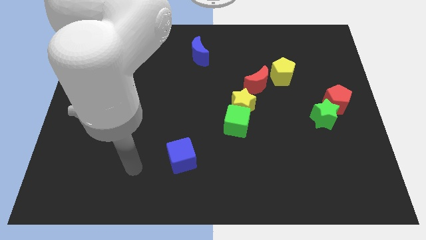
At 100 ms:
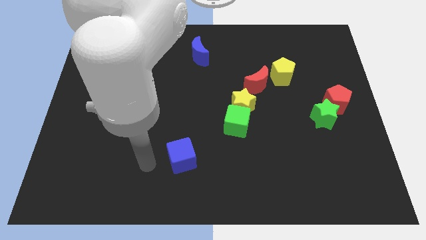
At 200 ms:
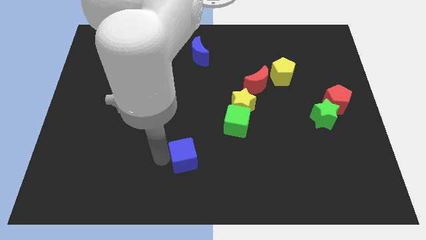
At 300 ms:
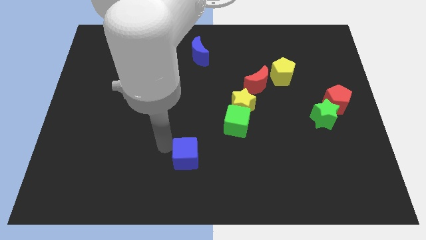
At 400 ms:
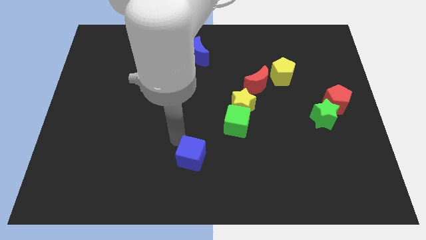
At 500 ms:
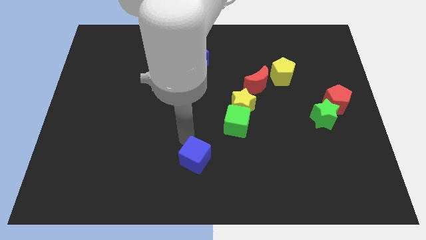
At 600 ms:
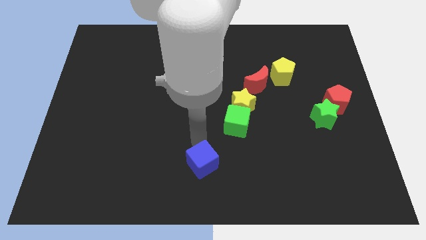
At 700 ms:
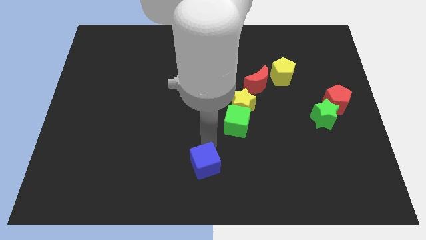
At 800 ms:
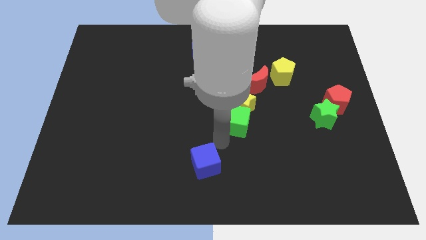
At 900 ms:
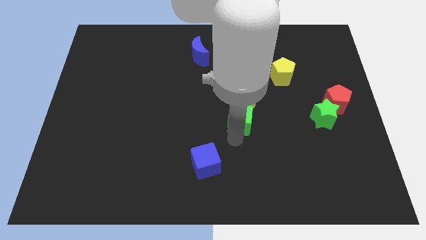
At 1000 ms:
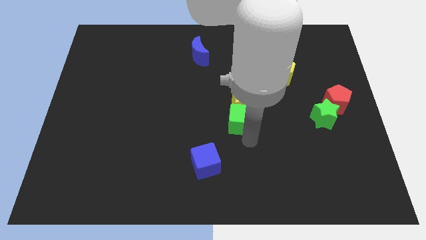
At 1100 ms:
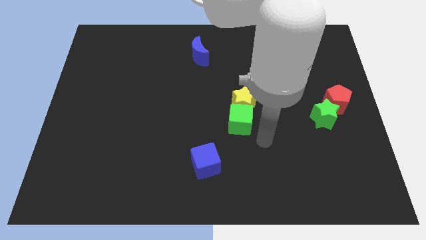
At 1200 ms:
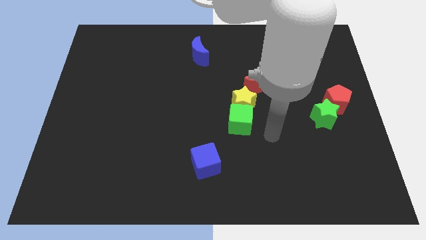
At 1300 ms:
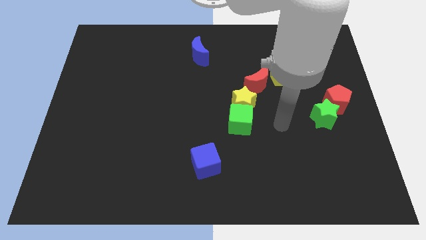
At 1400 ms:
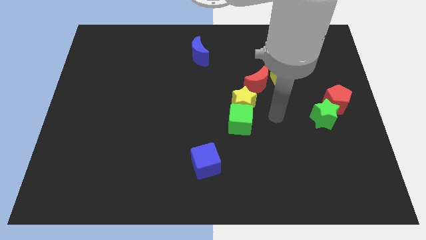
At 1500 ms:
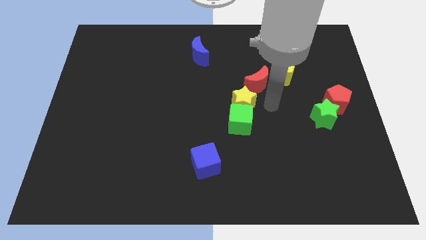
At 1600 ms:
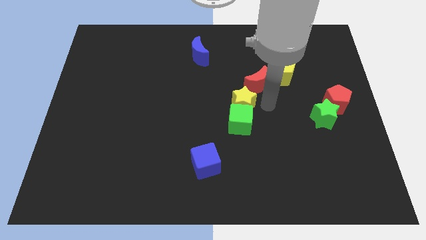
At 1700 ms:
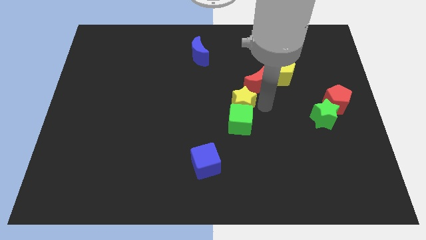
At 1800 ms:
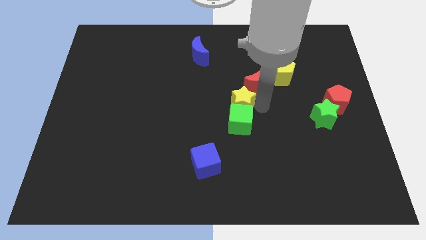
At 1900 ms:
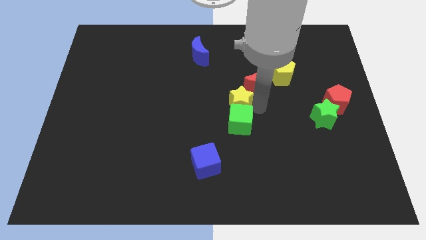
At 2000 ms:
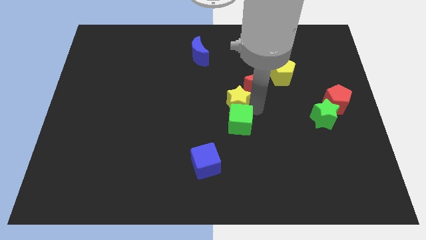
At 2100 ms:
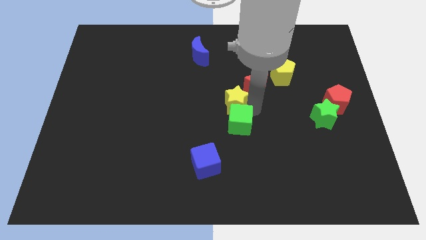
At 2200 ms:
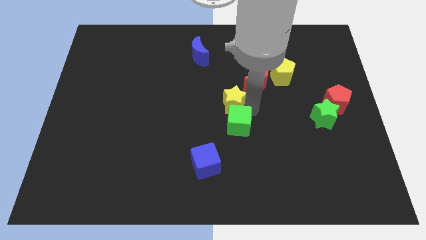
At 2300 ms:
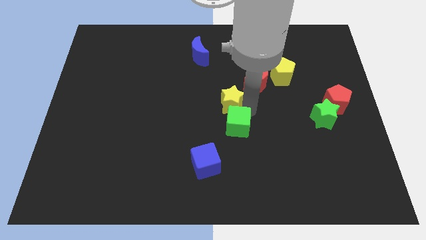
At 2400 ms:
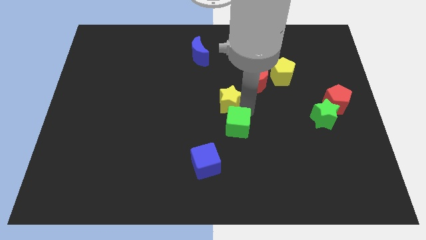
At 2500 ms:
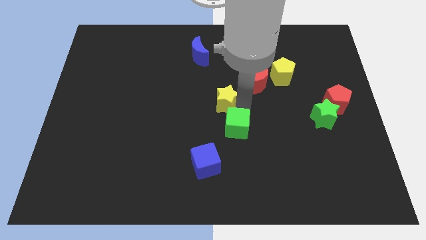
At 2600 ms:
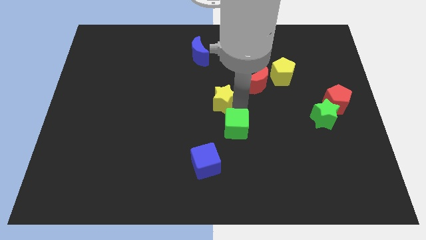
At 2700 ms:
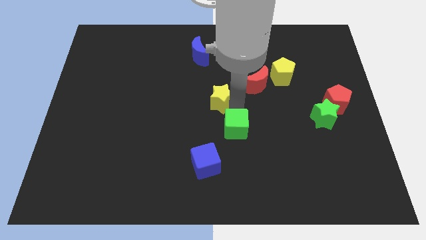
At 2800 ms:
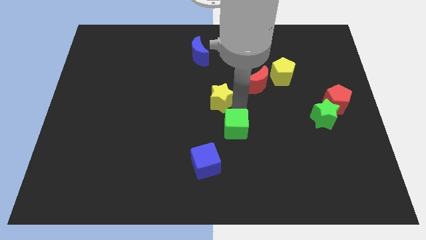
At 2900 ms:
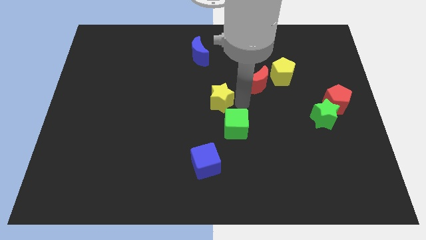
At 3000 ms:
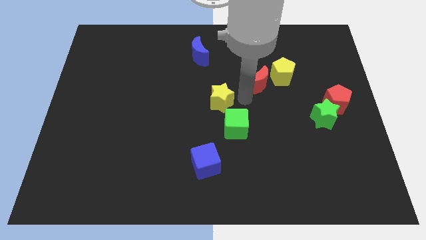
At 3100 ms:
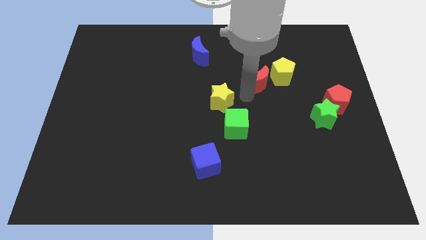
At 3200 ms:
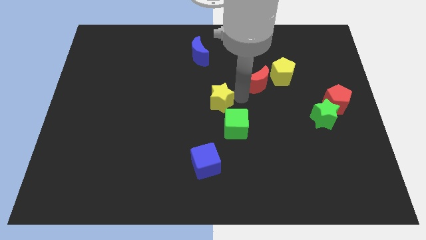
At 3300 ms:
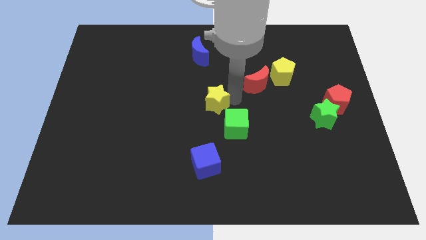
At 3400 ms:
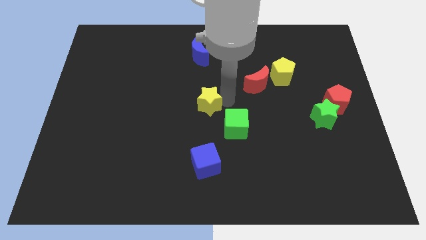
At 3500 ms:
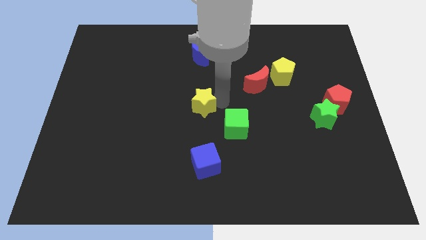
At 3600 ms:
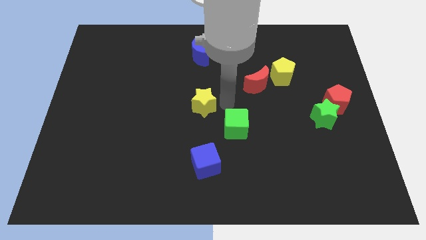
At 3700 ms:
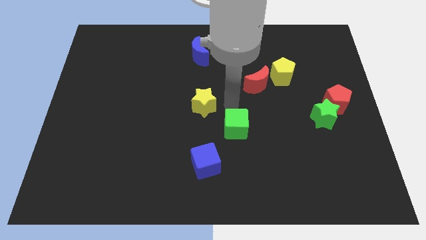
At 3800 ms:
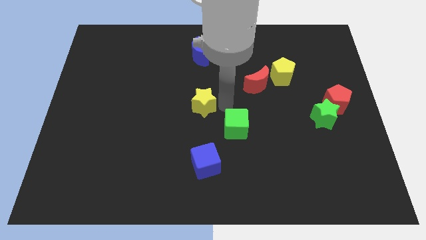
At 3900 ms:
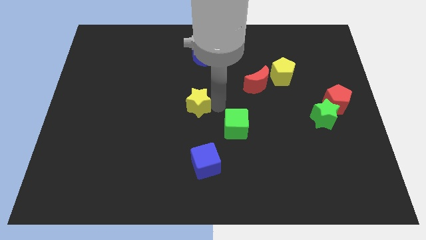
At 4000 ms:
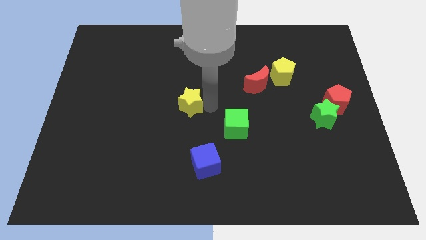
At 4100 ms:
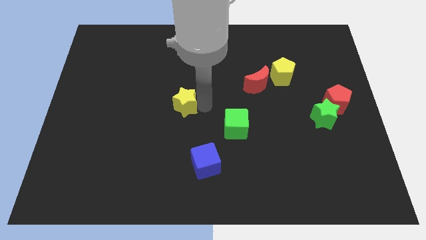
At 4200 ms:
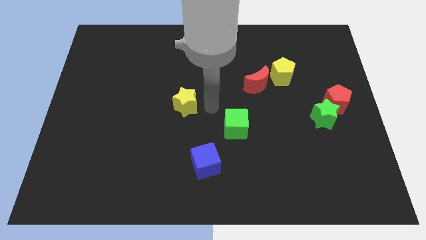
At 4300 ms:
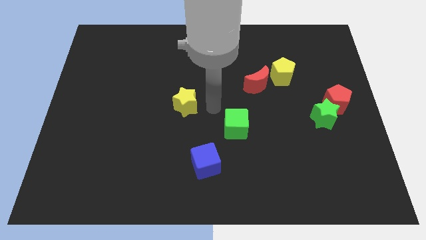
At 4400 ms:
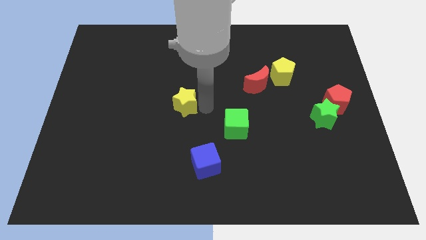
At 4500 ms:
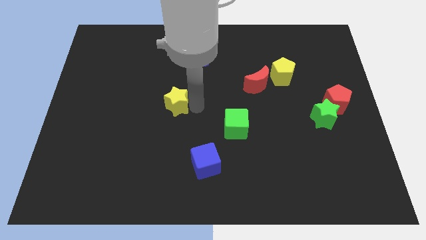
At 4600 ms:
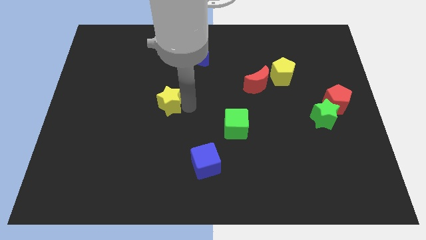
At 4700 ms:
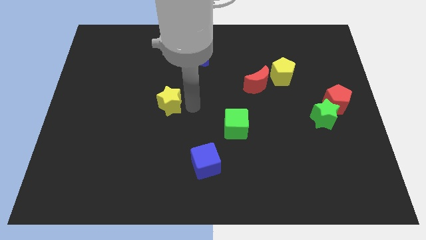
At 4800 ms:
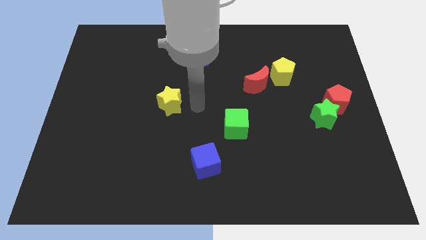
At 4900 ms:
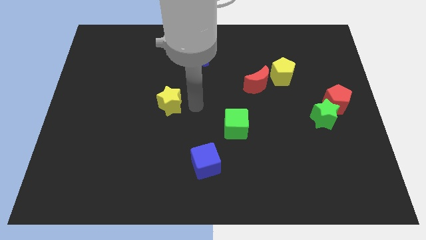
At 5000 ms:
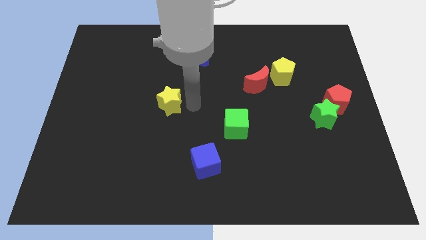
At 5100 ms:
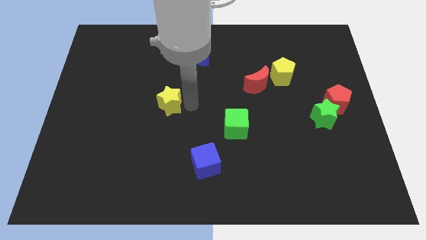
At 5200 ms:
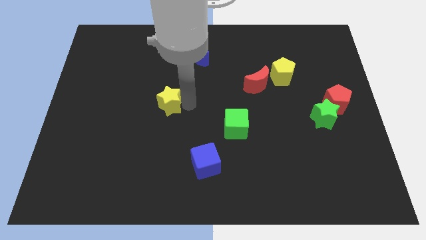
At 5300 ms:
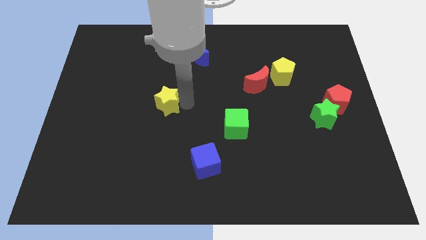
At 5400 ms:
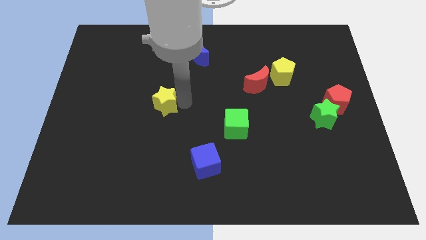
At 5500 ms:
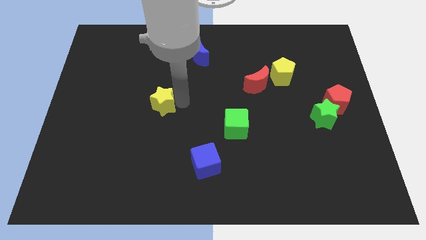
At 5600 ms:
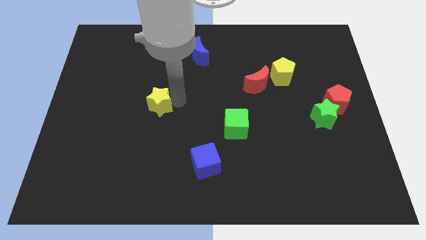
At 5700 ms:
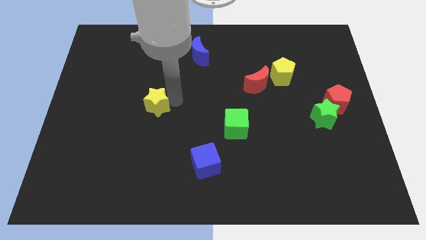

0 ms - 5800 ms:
move the yellow star to the left

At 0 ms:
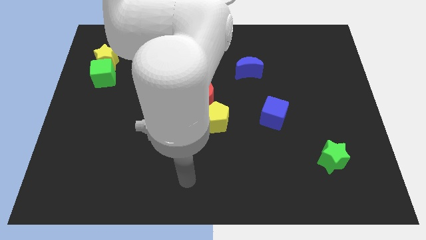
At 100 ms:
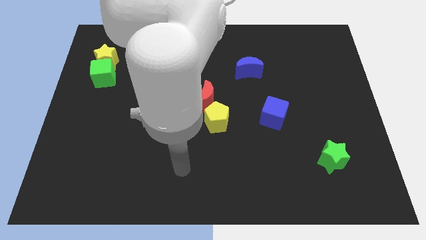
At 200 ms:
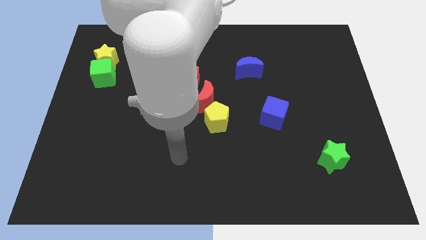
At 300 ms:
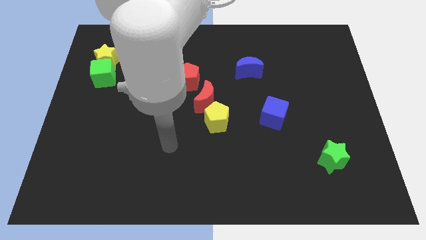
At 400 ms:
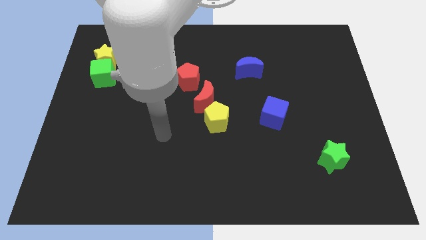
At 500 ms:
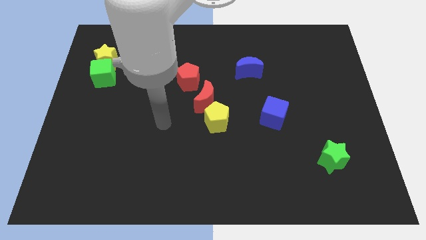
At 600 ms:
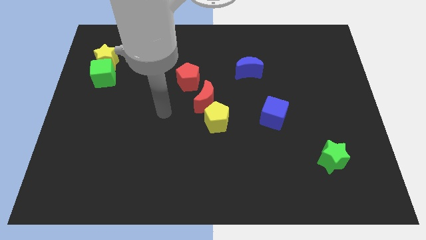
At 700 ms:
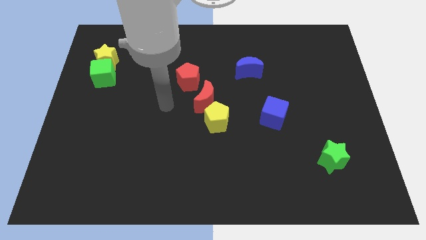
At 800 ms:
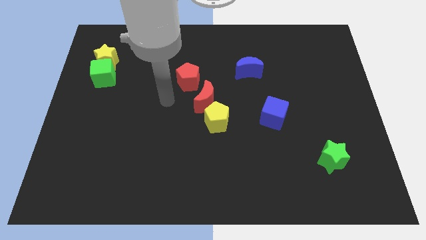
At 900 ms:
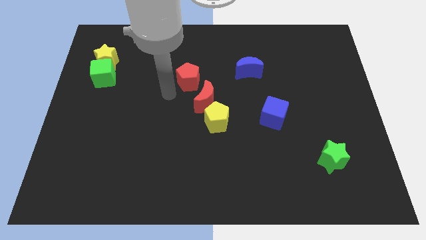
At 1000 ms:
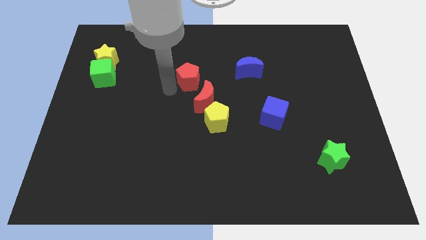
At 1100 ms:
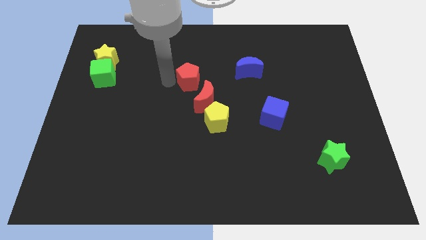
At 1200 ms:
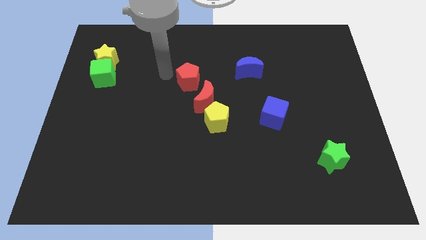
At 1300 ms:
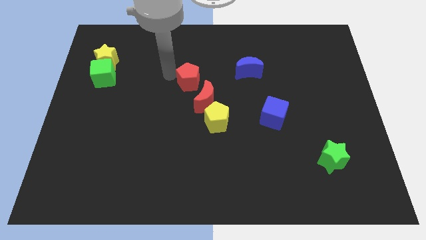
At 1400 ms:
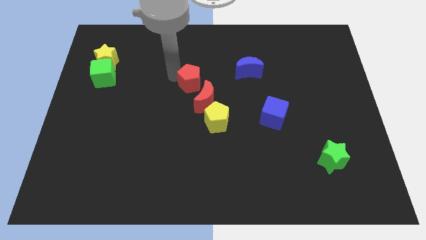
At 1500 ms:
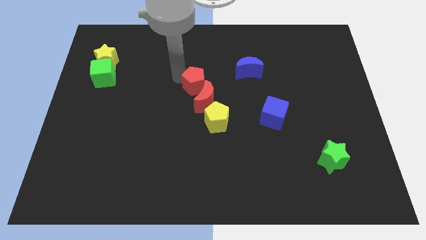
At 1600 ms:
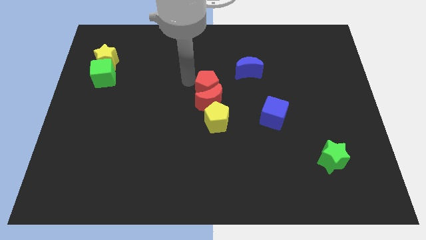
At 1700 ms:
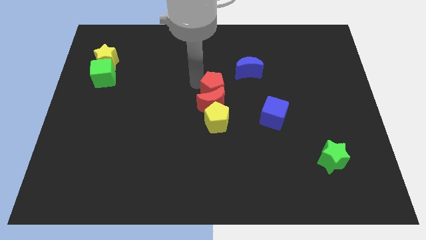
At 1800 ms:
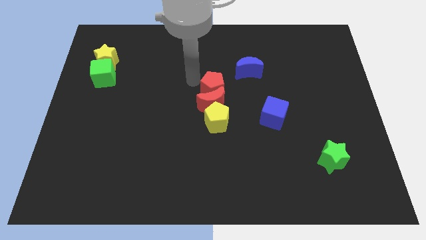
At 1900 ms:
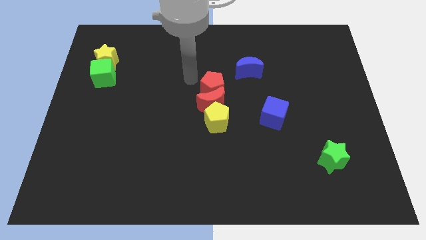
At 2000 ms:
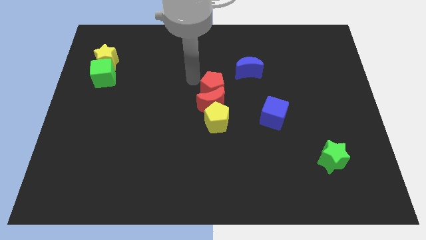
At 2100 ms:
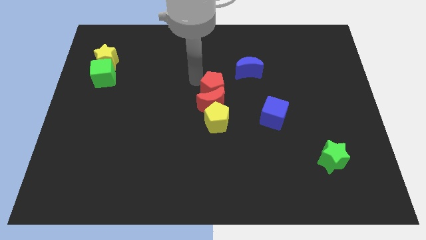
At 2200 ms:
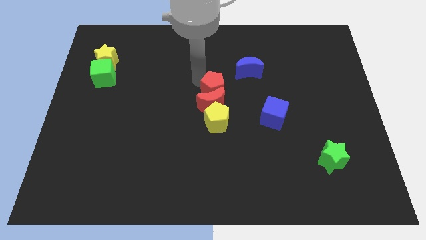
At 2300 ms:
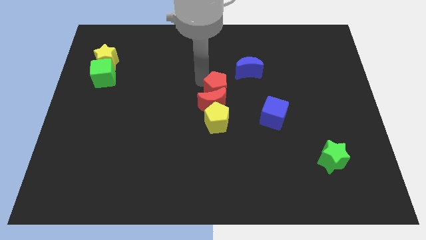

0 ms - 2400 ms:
slightly move the red pentagon downwards and to the right

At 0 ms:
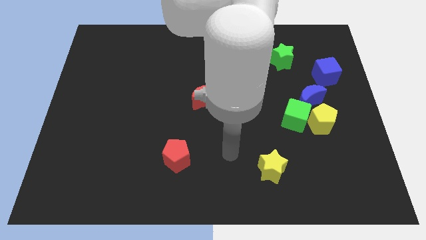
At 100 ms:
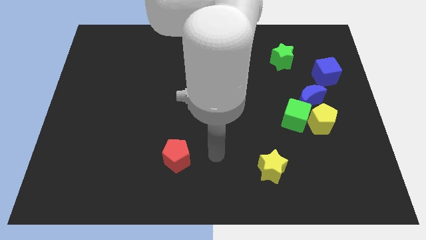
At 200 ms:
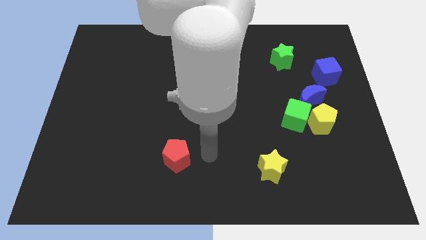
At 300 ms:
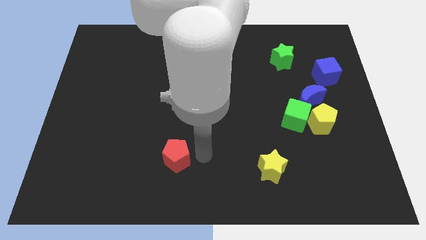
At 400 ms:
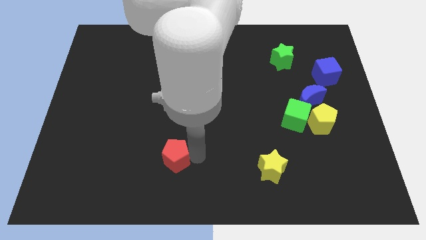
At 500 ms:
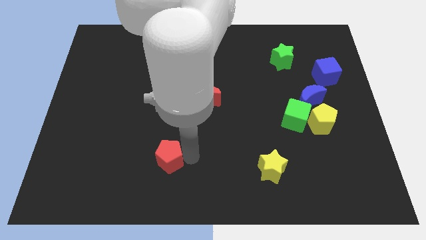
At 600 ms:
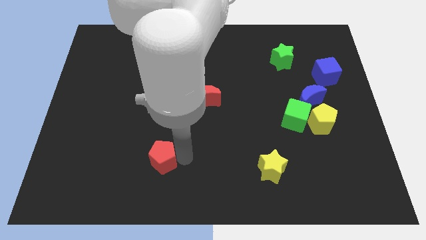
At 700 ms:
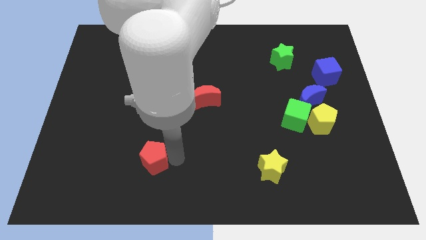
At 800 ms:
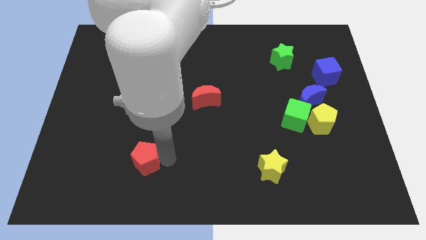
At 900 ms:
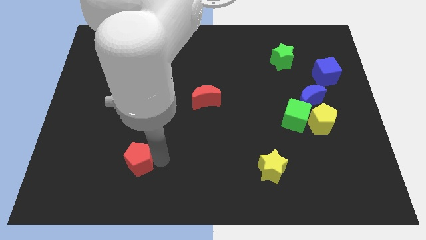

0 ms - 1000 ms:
push the red pentagon to the left a bit
